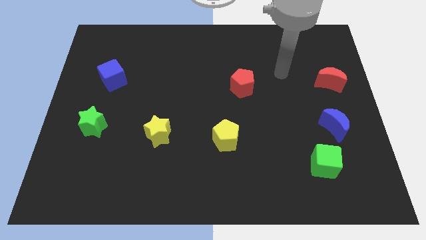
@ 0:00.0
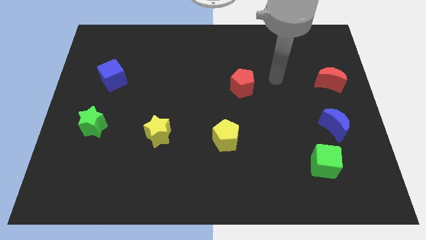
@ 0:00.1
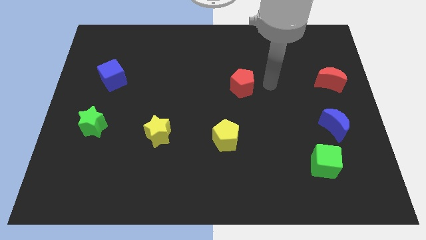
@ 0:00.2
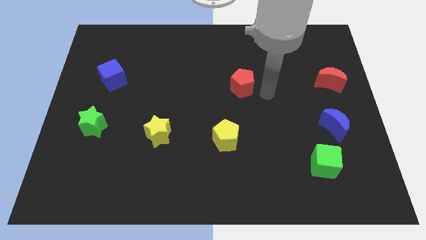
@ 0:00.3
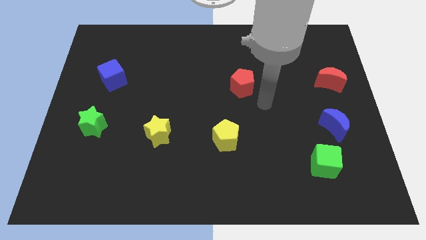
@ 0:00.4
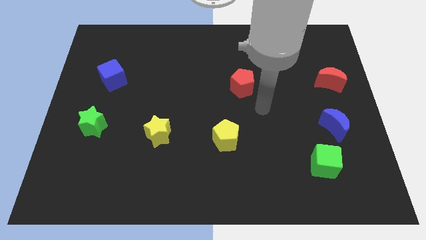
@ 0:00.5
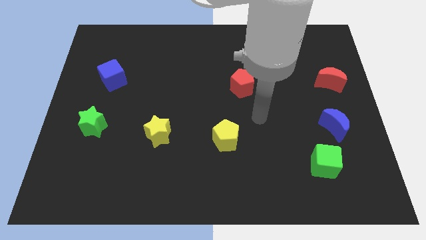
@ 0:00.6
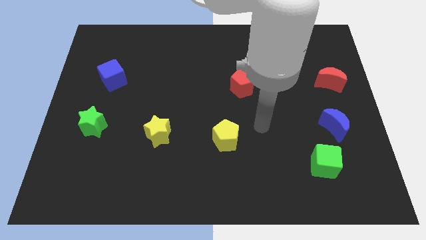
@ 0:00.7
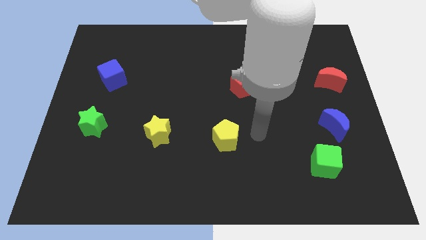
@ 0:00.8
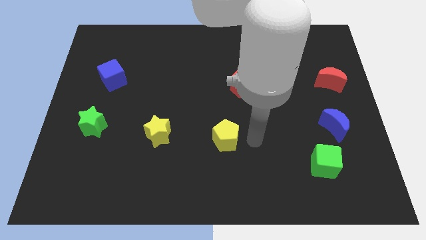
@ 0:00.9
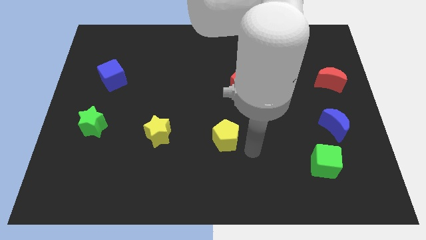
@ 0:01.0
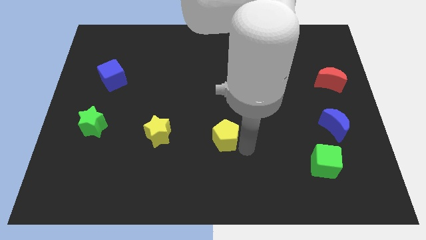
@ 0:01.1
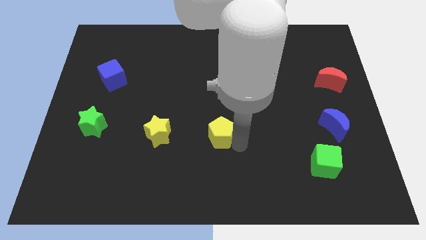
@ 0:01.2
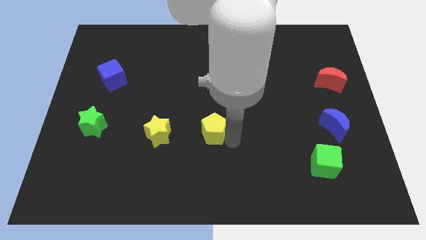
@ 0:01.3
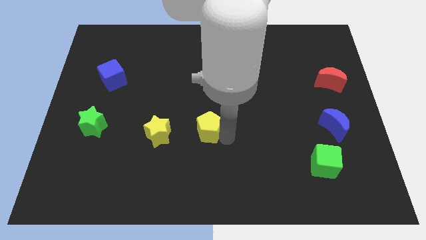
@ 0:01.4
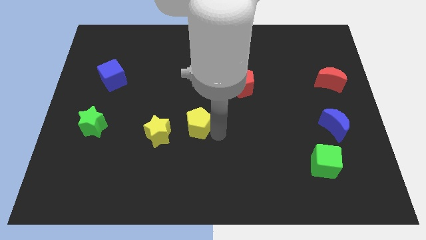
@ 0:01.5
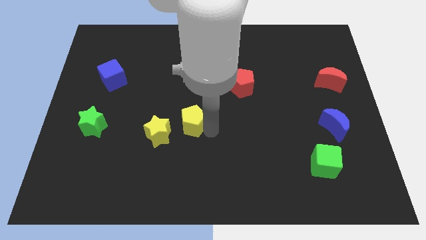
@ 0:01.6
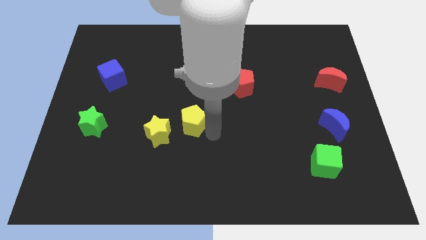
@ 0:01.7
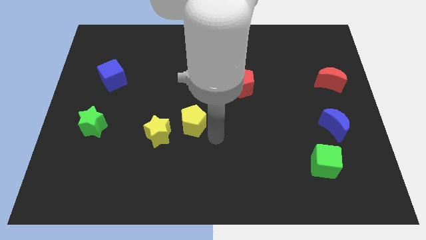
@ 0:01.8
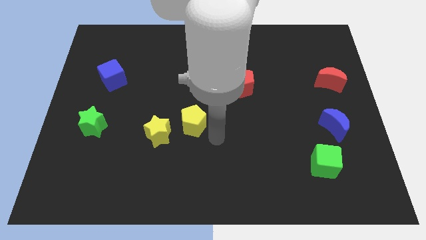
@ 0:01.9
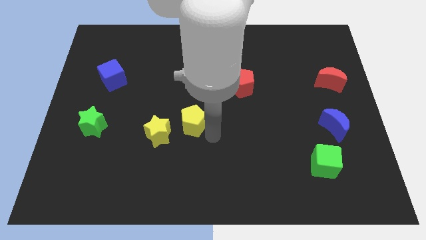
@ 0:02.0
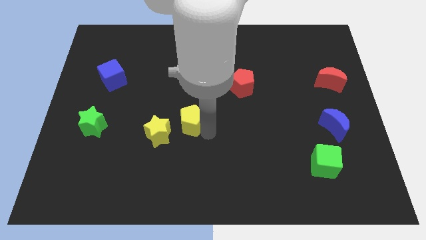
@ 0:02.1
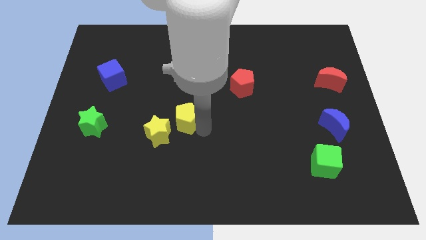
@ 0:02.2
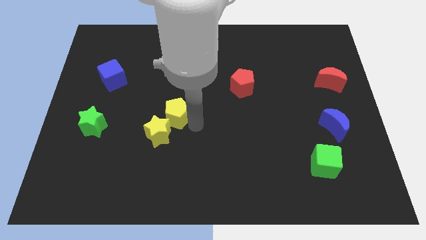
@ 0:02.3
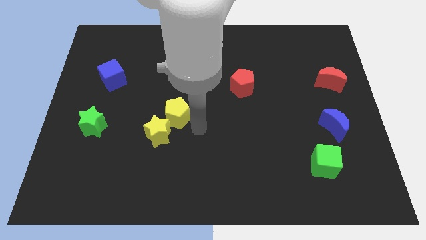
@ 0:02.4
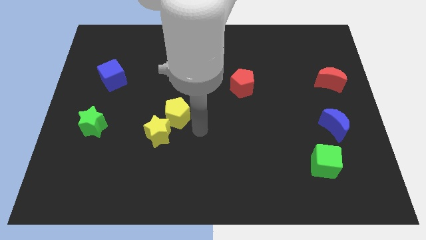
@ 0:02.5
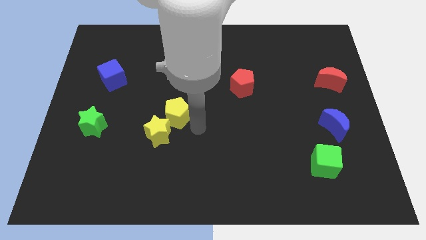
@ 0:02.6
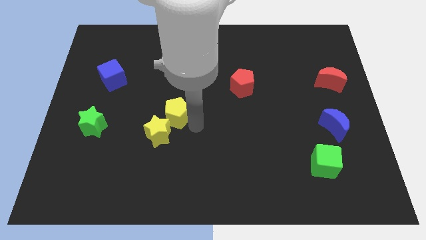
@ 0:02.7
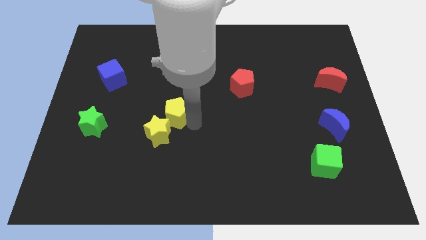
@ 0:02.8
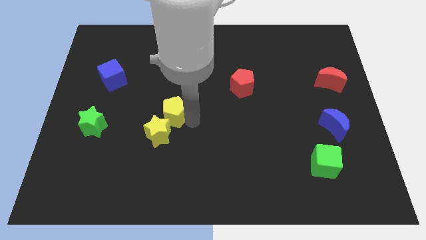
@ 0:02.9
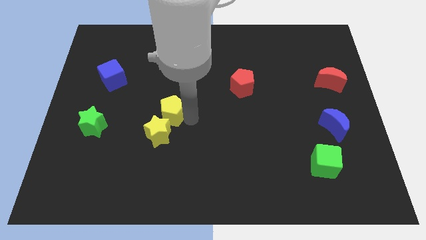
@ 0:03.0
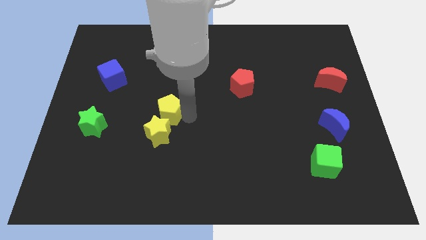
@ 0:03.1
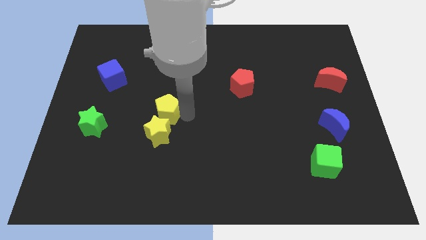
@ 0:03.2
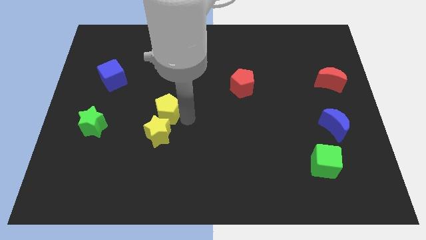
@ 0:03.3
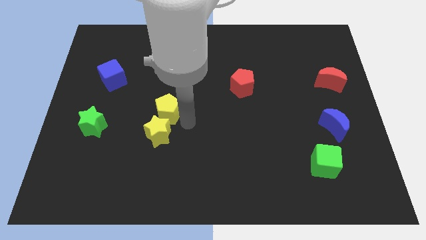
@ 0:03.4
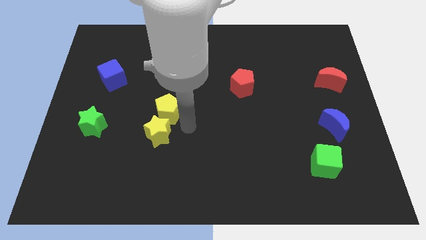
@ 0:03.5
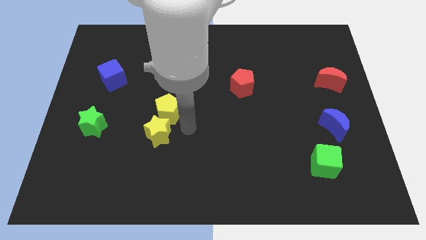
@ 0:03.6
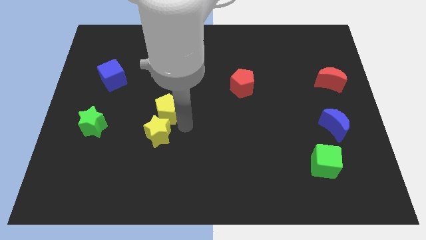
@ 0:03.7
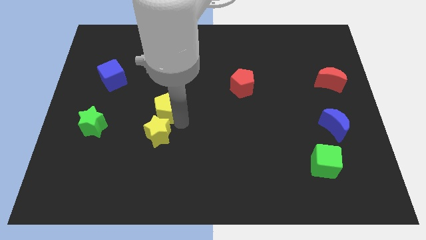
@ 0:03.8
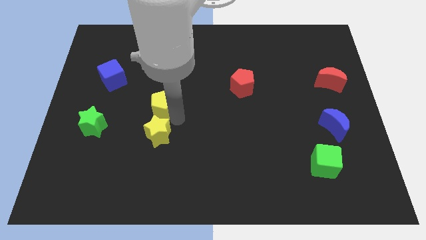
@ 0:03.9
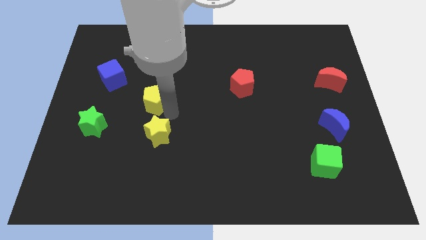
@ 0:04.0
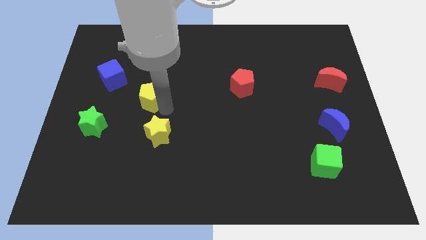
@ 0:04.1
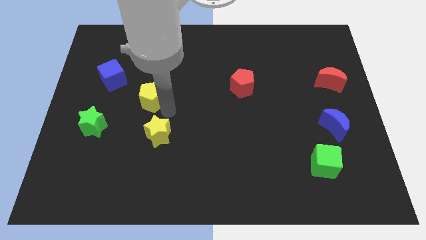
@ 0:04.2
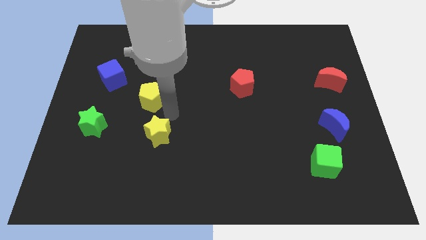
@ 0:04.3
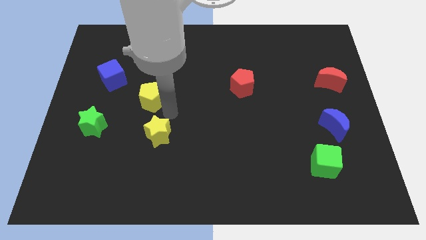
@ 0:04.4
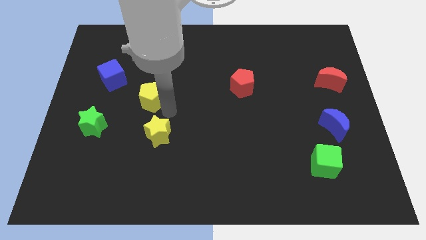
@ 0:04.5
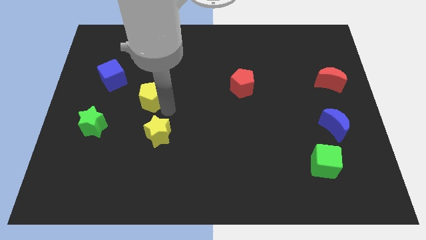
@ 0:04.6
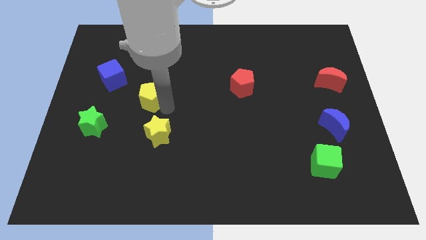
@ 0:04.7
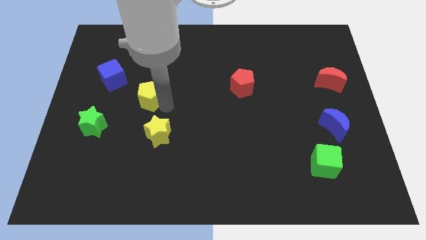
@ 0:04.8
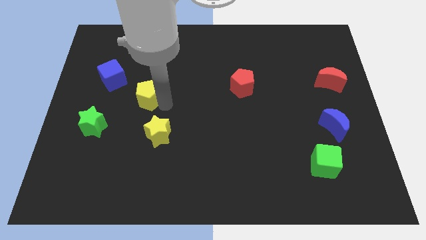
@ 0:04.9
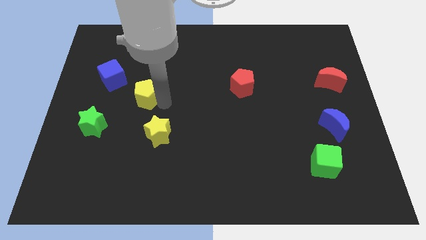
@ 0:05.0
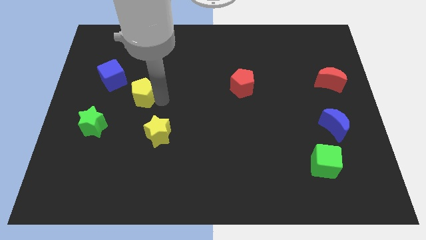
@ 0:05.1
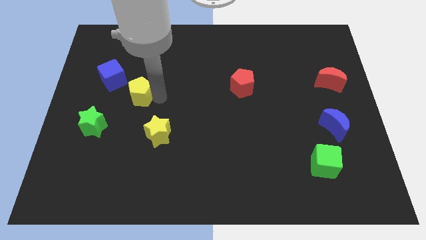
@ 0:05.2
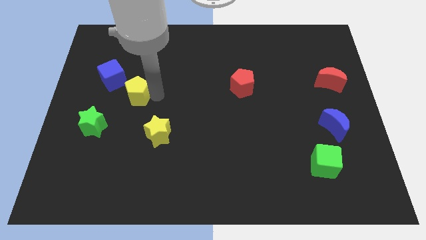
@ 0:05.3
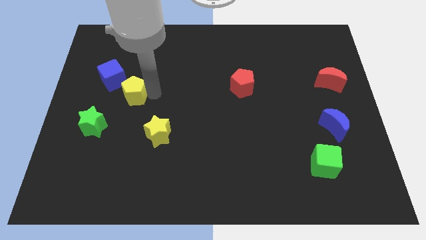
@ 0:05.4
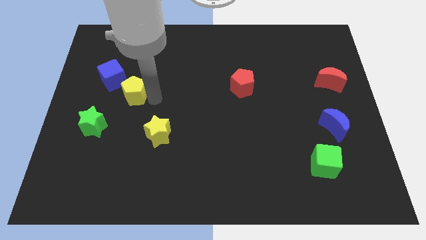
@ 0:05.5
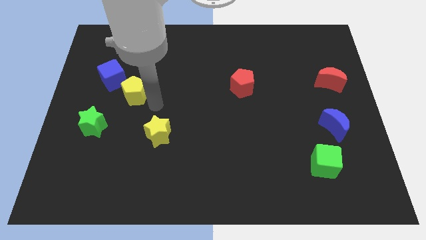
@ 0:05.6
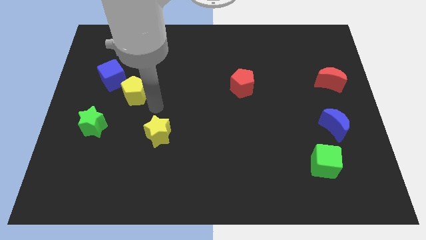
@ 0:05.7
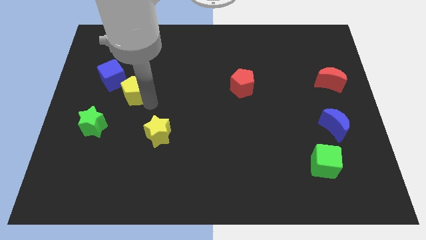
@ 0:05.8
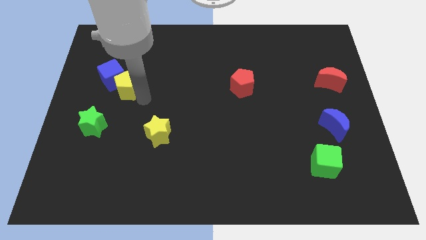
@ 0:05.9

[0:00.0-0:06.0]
move the yellow pentagon close to the blue cube

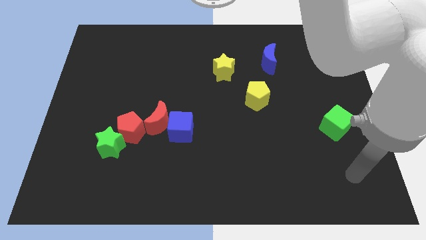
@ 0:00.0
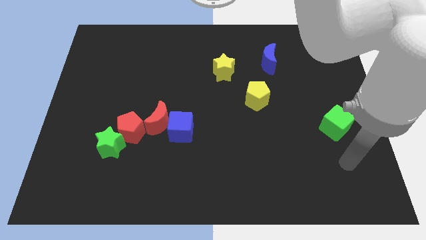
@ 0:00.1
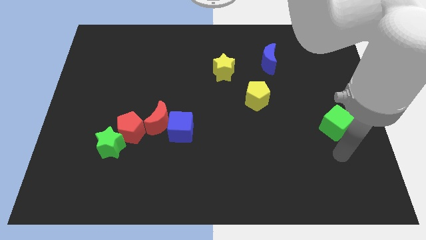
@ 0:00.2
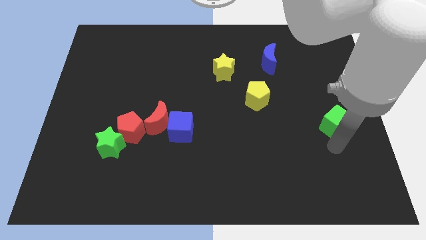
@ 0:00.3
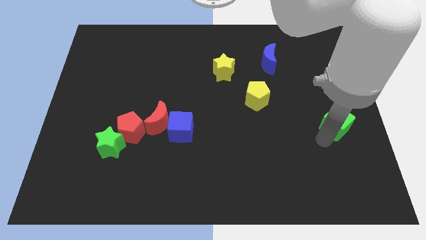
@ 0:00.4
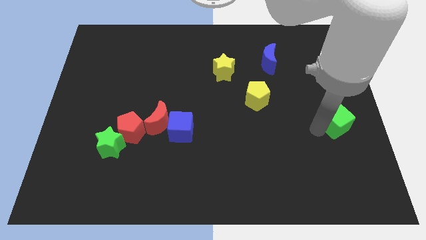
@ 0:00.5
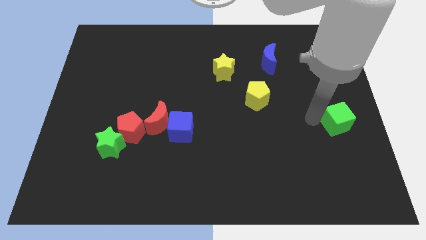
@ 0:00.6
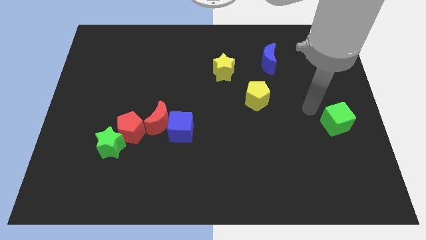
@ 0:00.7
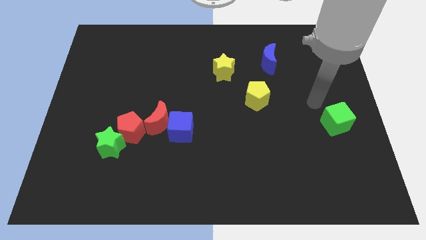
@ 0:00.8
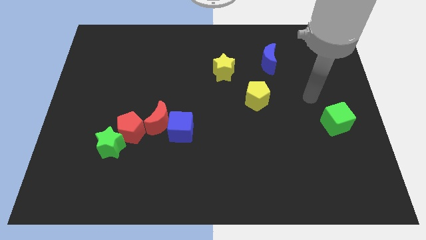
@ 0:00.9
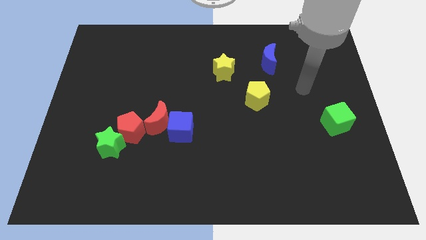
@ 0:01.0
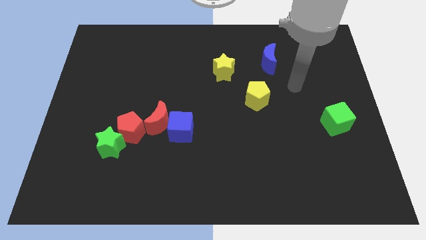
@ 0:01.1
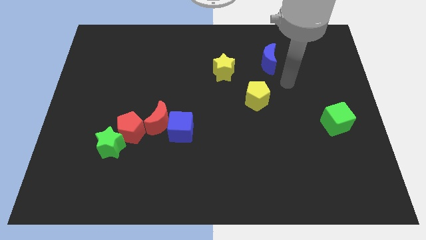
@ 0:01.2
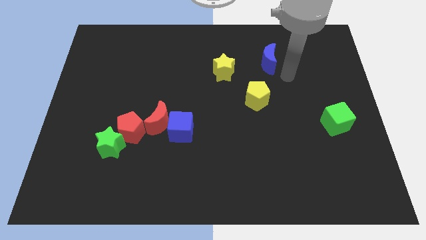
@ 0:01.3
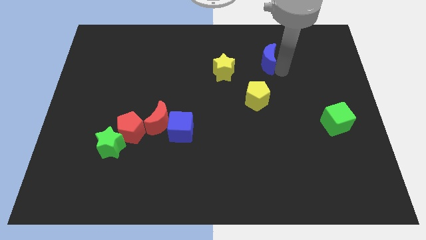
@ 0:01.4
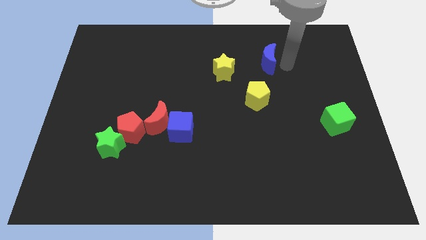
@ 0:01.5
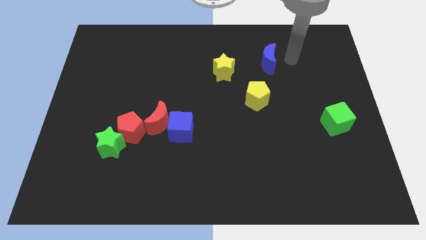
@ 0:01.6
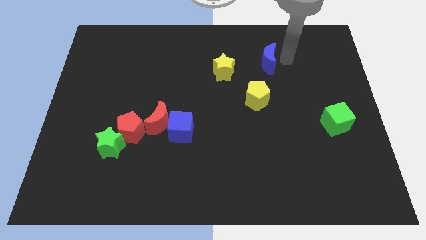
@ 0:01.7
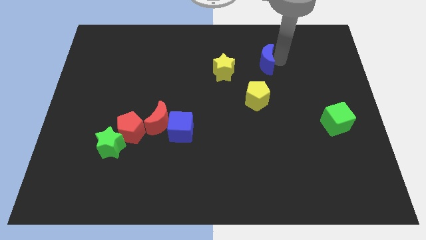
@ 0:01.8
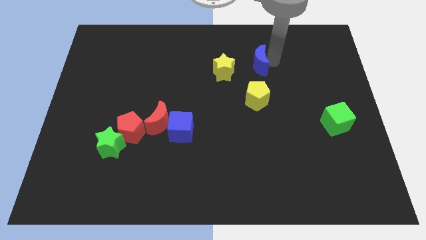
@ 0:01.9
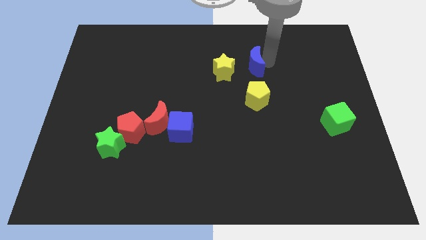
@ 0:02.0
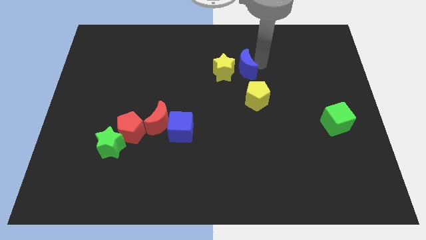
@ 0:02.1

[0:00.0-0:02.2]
move the blue moon to the yellow star
